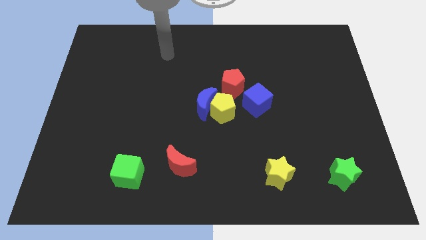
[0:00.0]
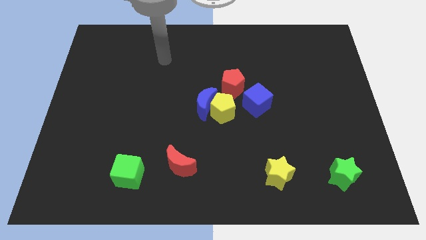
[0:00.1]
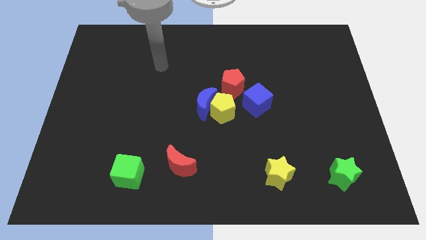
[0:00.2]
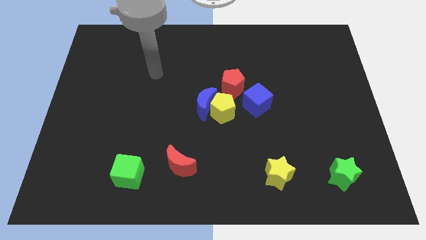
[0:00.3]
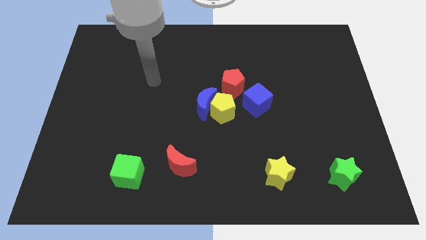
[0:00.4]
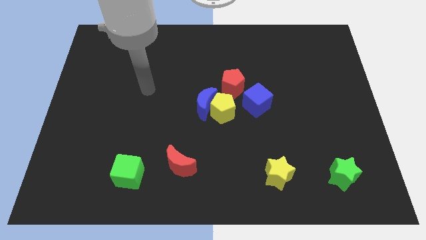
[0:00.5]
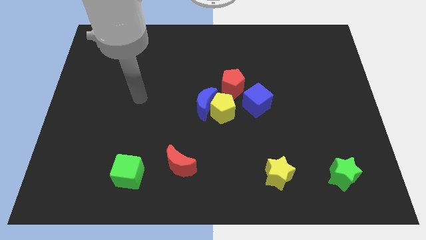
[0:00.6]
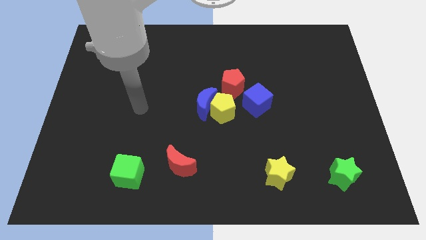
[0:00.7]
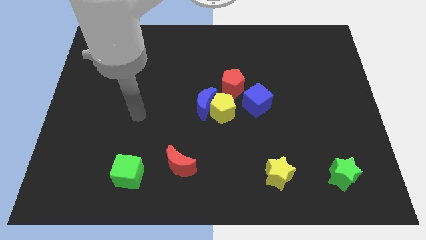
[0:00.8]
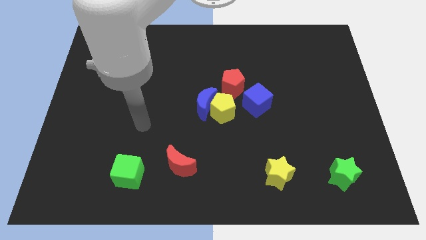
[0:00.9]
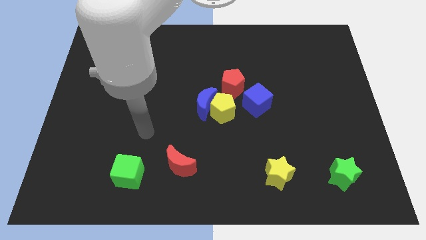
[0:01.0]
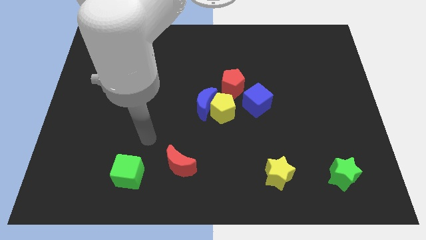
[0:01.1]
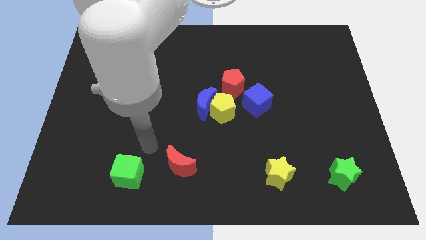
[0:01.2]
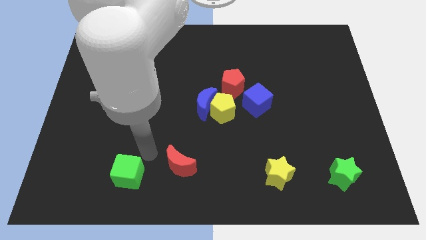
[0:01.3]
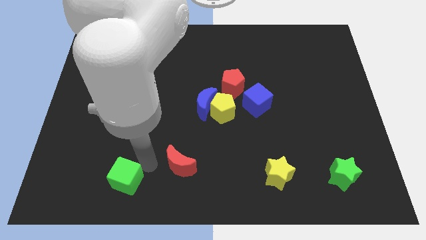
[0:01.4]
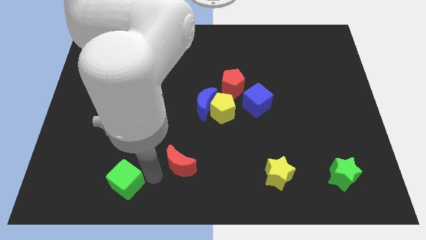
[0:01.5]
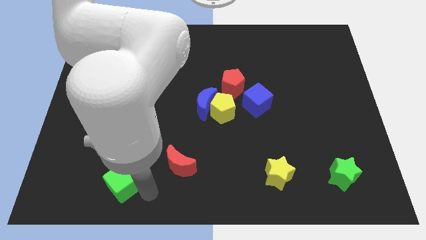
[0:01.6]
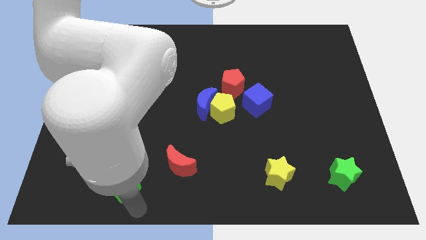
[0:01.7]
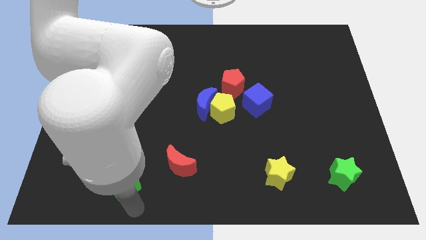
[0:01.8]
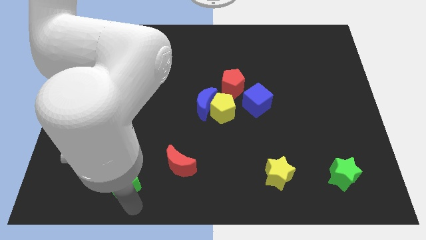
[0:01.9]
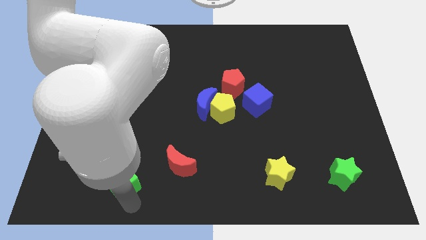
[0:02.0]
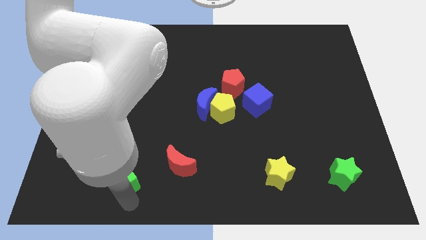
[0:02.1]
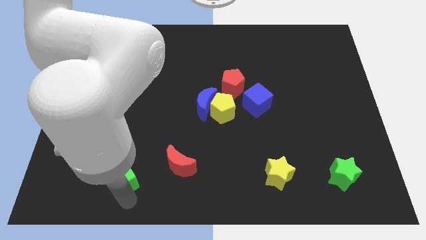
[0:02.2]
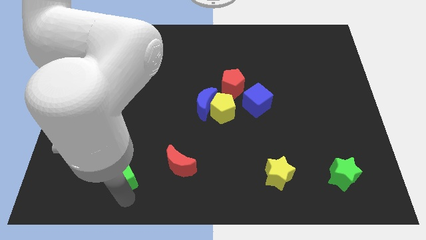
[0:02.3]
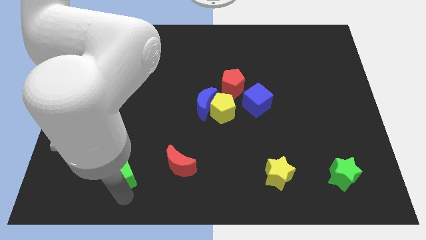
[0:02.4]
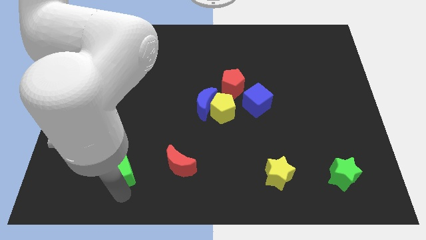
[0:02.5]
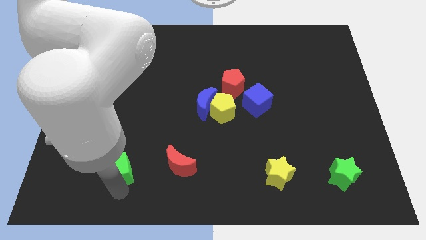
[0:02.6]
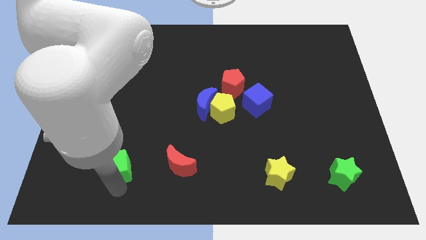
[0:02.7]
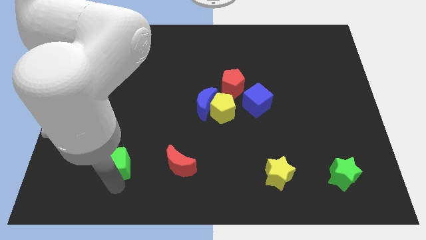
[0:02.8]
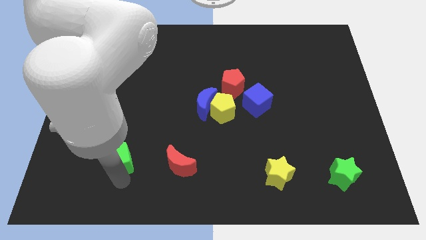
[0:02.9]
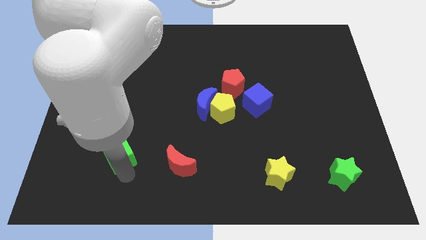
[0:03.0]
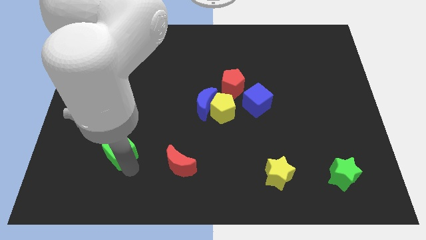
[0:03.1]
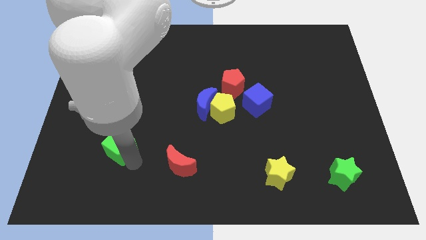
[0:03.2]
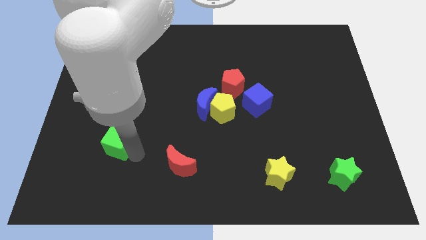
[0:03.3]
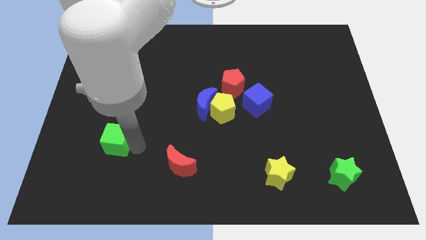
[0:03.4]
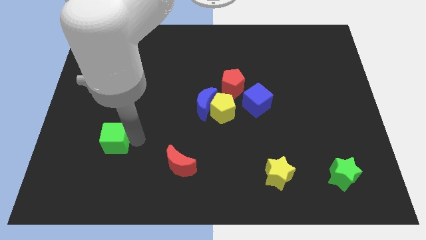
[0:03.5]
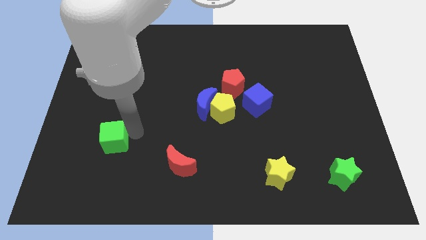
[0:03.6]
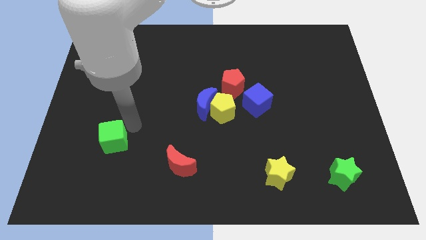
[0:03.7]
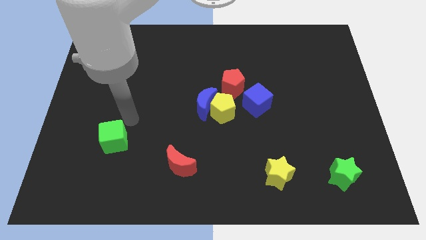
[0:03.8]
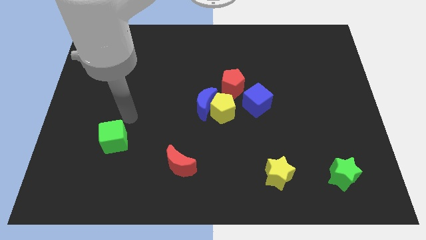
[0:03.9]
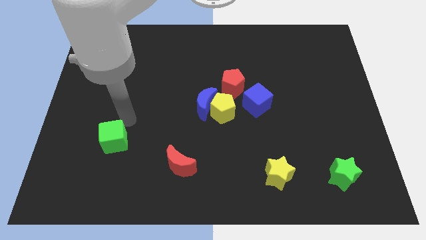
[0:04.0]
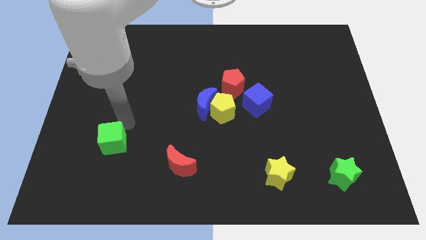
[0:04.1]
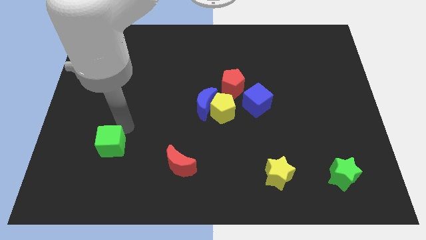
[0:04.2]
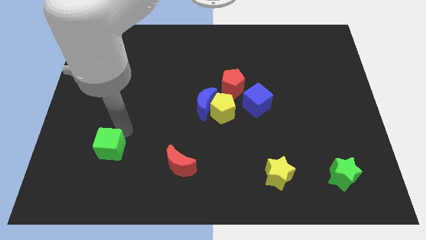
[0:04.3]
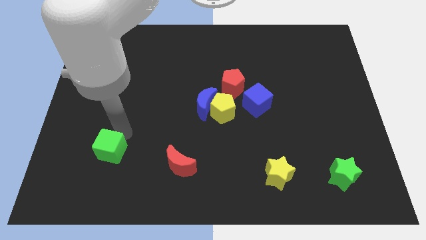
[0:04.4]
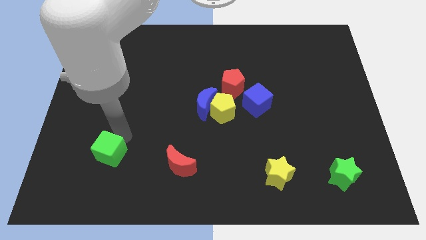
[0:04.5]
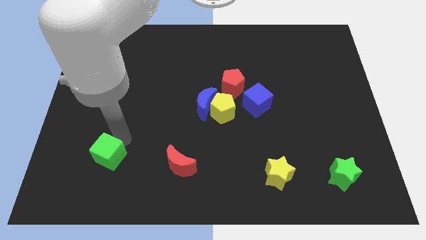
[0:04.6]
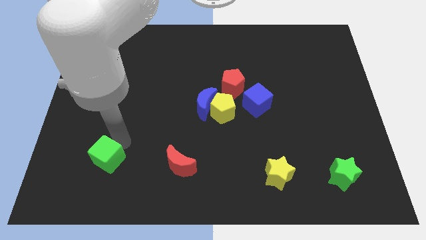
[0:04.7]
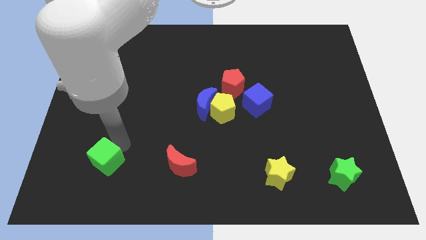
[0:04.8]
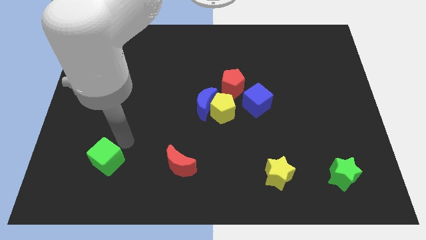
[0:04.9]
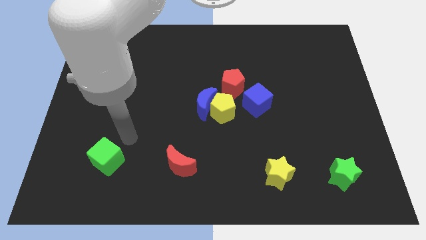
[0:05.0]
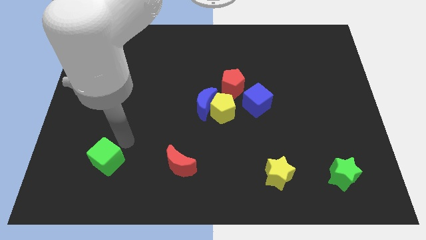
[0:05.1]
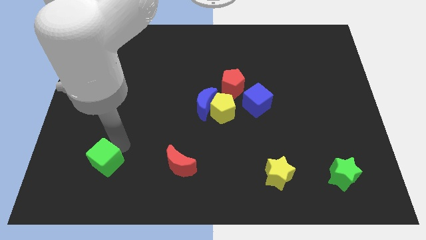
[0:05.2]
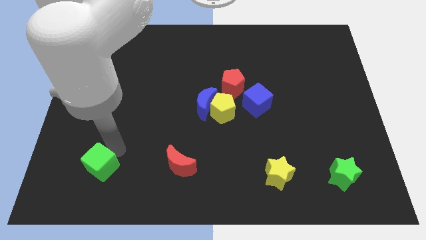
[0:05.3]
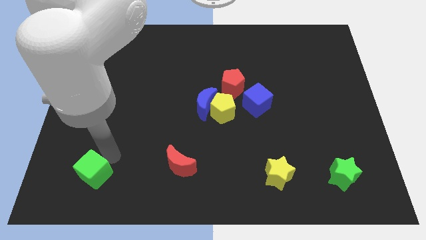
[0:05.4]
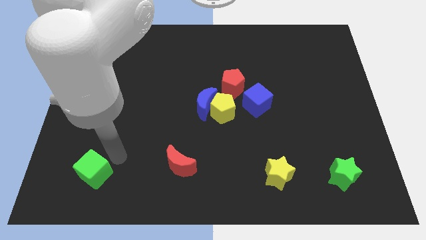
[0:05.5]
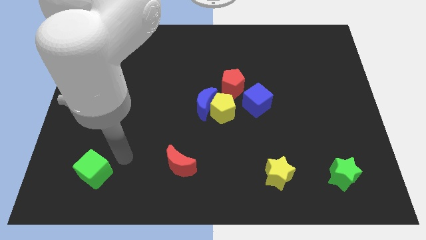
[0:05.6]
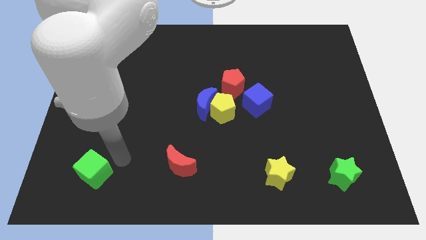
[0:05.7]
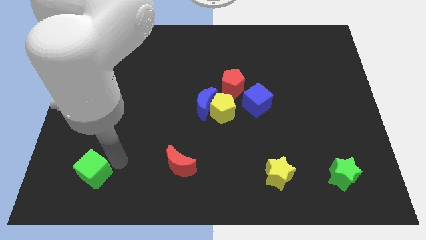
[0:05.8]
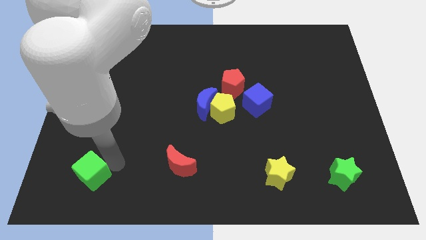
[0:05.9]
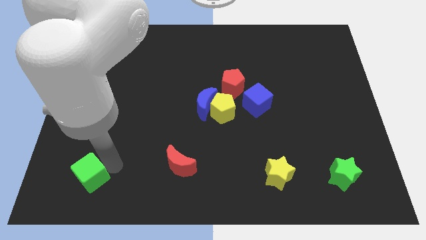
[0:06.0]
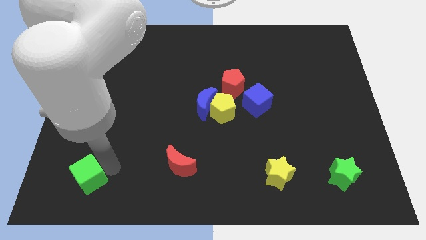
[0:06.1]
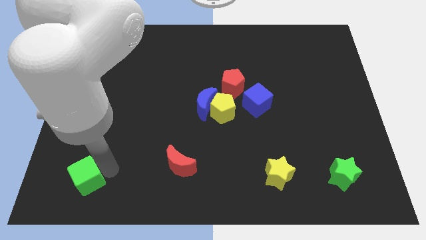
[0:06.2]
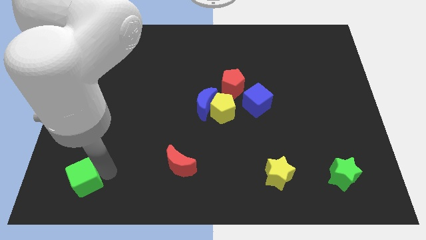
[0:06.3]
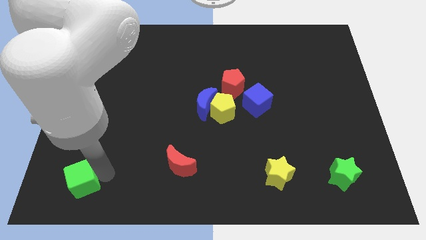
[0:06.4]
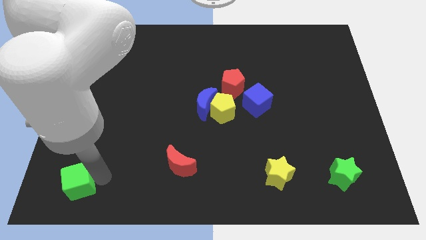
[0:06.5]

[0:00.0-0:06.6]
move the green cube to the bottom left

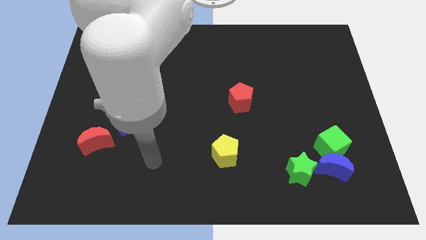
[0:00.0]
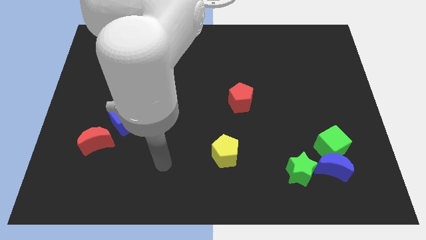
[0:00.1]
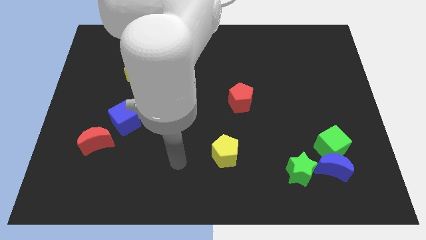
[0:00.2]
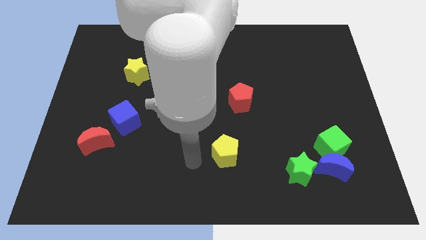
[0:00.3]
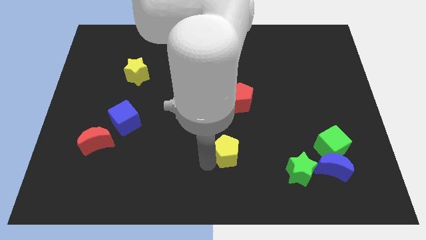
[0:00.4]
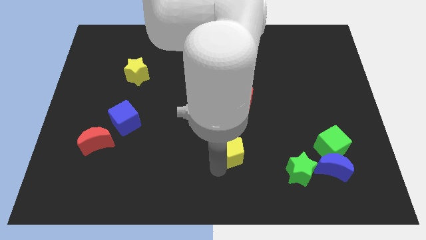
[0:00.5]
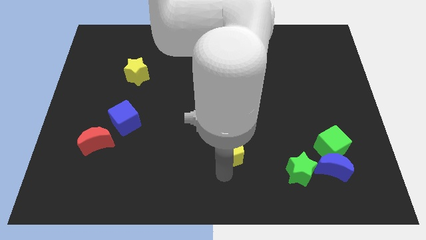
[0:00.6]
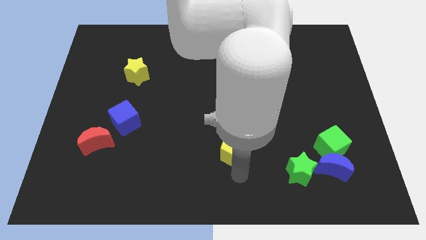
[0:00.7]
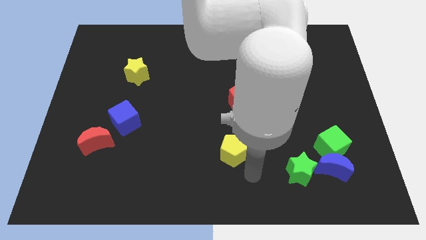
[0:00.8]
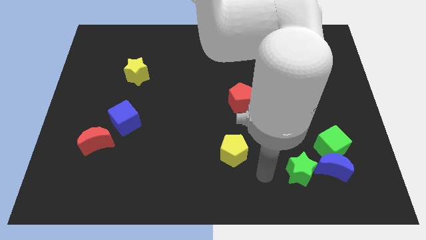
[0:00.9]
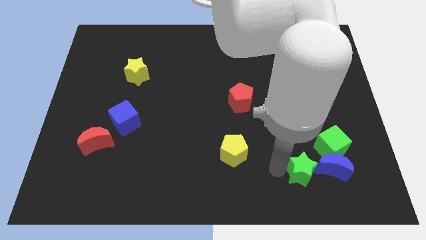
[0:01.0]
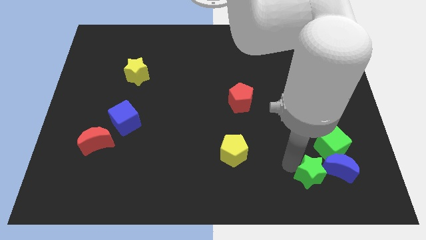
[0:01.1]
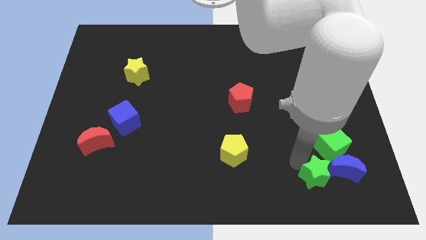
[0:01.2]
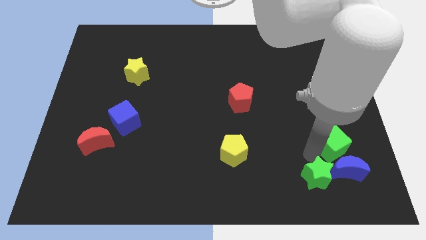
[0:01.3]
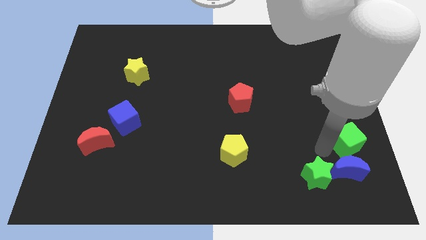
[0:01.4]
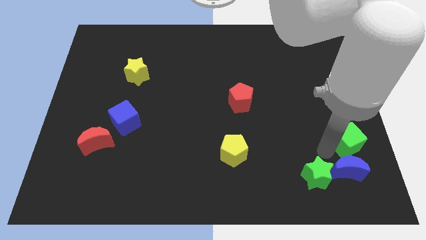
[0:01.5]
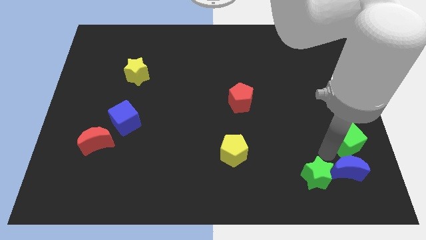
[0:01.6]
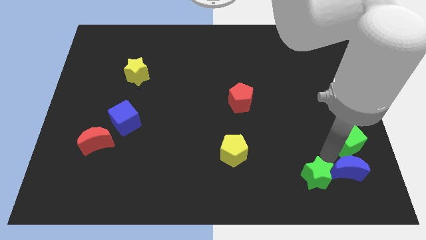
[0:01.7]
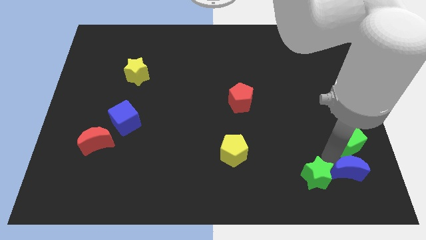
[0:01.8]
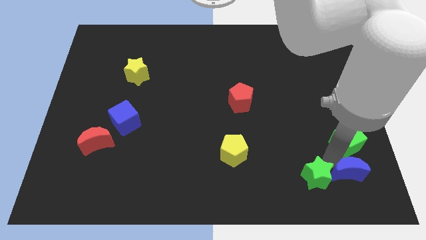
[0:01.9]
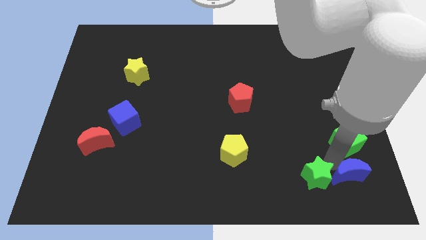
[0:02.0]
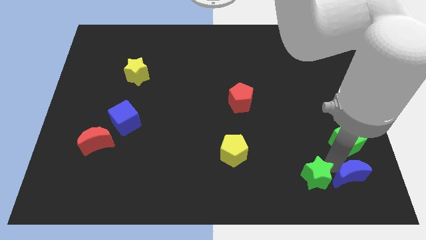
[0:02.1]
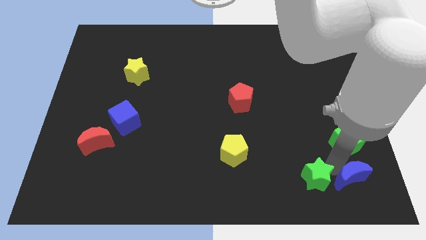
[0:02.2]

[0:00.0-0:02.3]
put the blue moon to the bottom right corner
